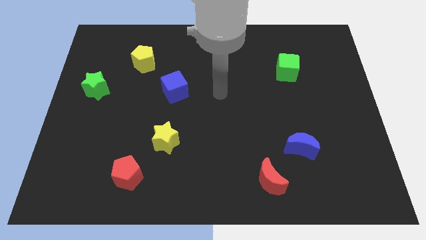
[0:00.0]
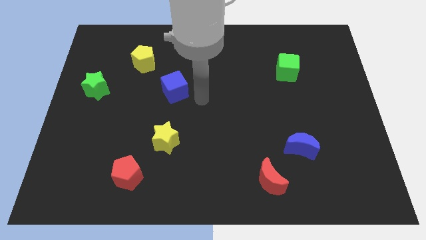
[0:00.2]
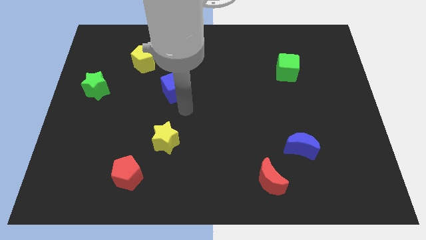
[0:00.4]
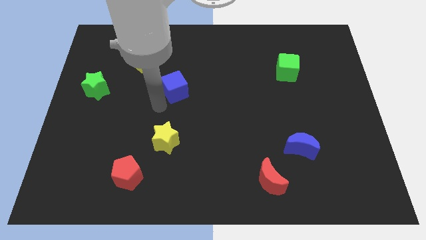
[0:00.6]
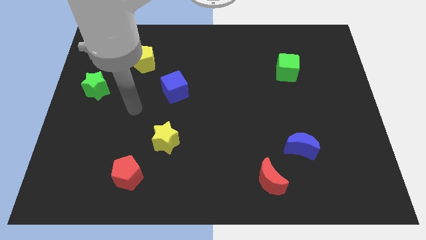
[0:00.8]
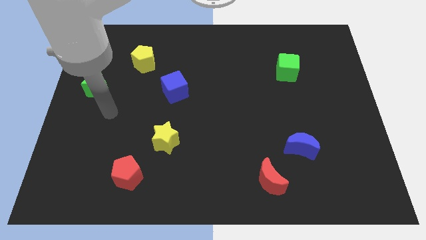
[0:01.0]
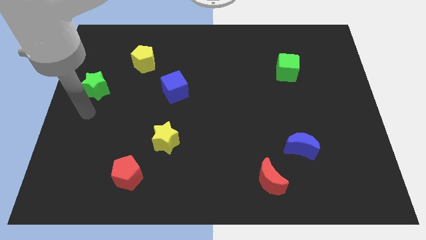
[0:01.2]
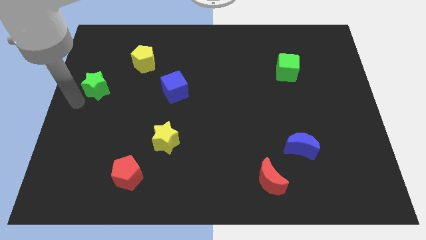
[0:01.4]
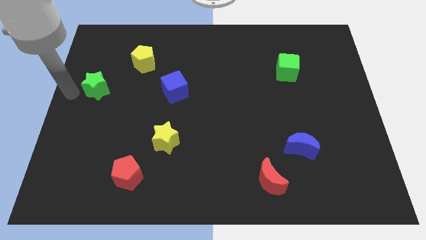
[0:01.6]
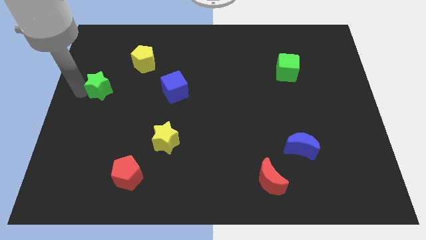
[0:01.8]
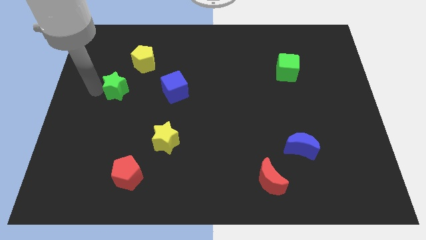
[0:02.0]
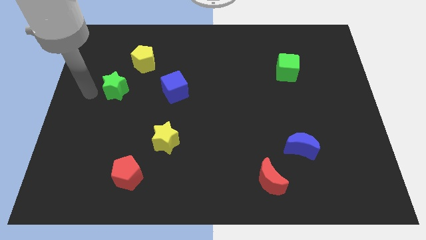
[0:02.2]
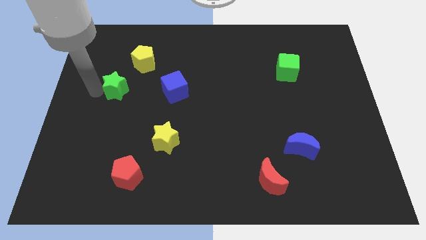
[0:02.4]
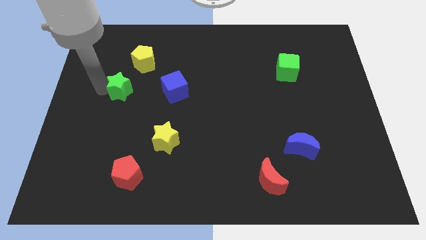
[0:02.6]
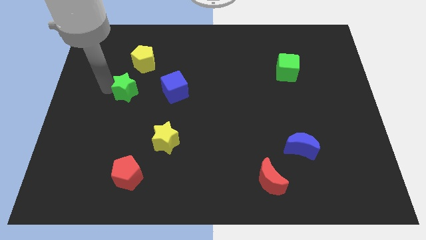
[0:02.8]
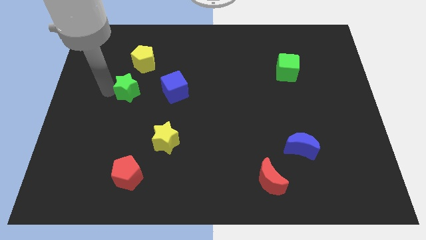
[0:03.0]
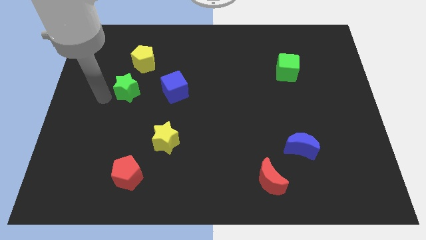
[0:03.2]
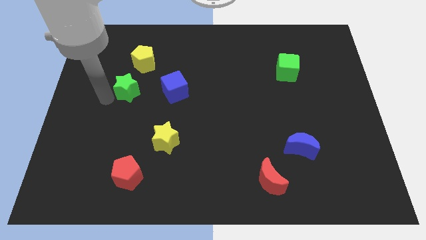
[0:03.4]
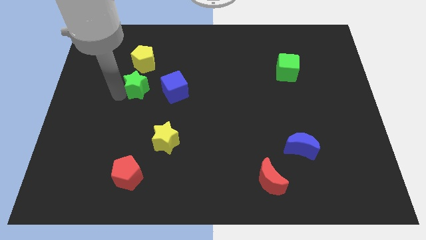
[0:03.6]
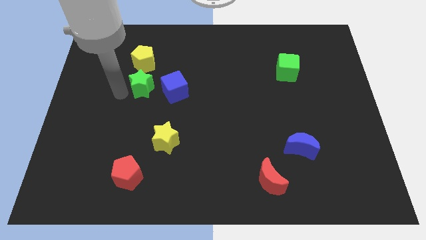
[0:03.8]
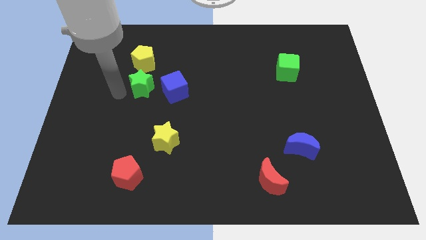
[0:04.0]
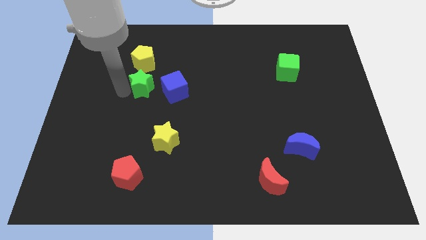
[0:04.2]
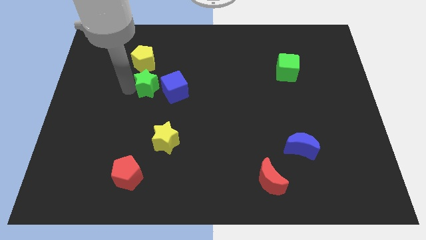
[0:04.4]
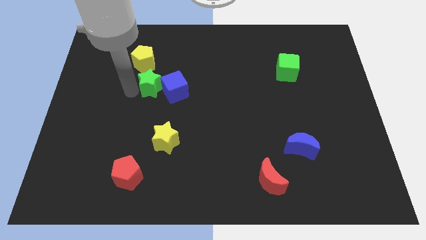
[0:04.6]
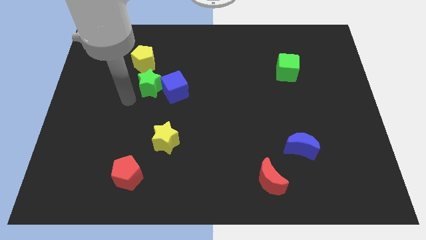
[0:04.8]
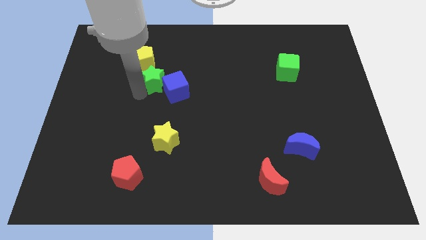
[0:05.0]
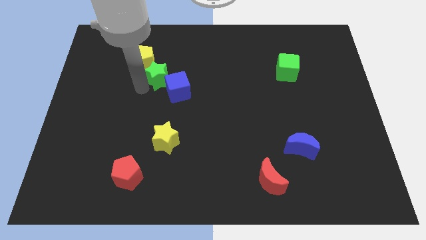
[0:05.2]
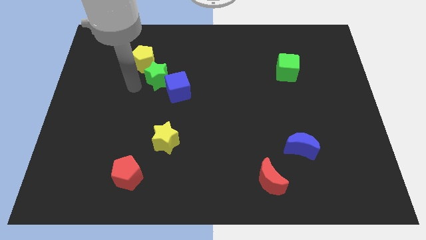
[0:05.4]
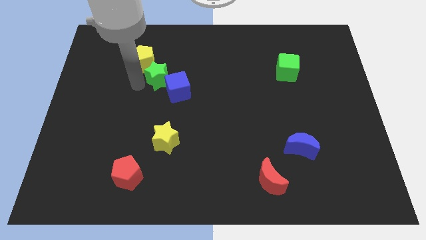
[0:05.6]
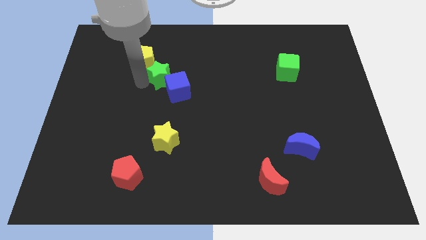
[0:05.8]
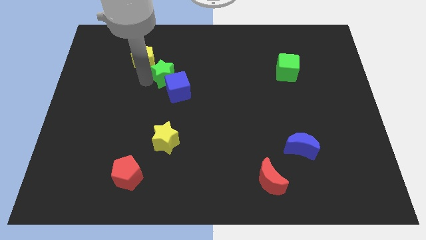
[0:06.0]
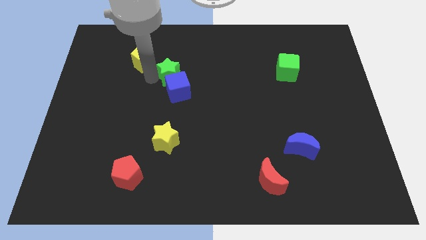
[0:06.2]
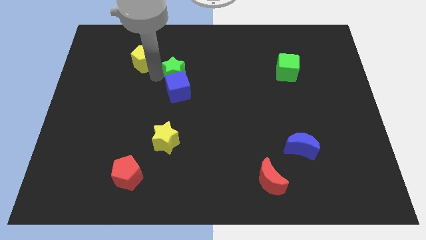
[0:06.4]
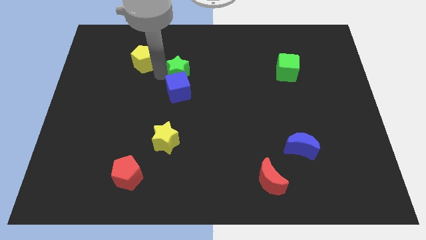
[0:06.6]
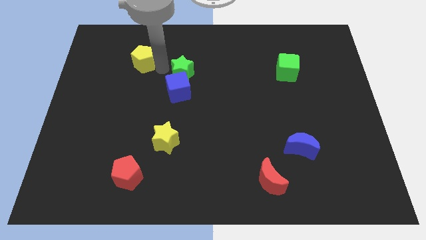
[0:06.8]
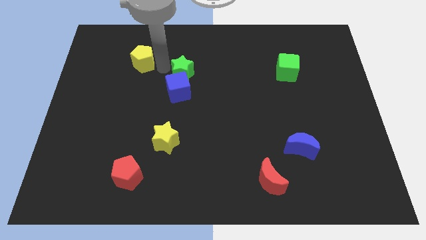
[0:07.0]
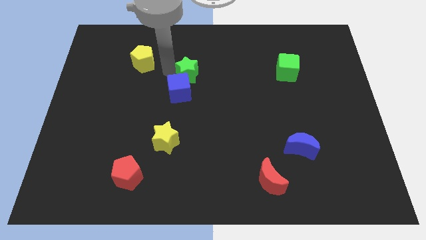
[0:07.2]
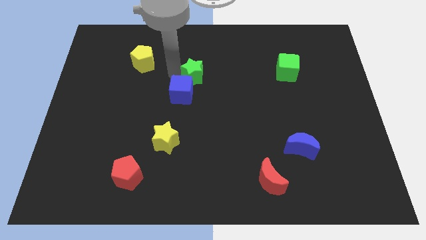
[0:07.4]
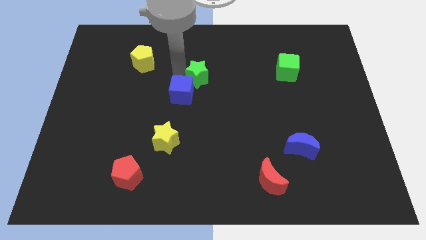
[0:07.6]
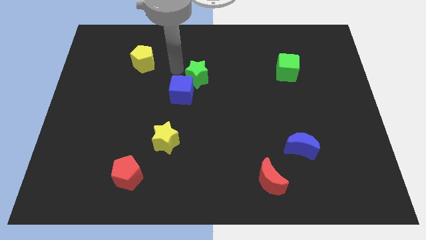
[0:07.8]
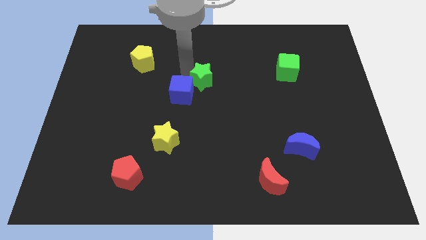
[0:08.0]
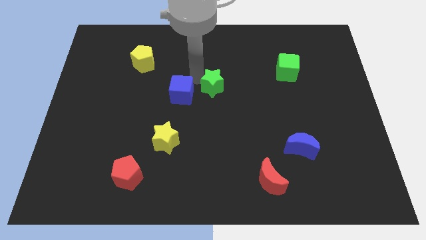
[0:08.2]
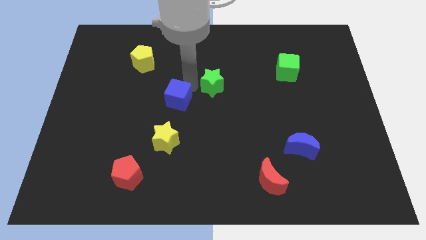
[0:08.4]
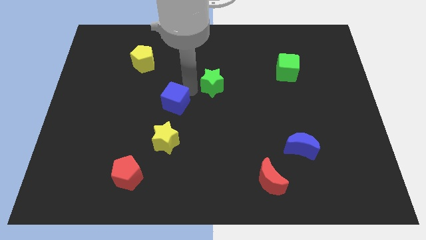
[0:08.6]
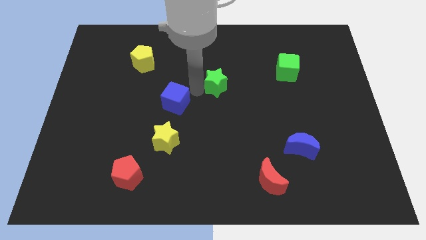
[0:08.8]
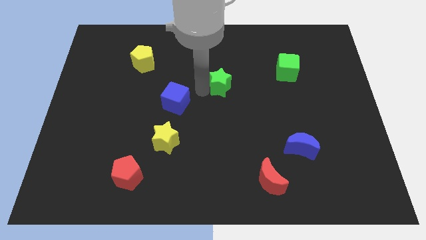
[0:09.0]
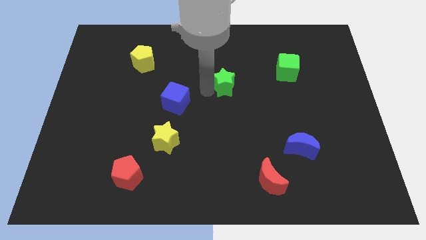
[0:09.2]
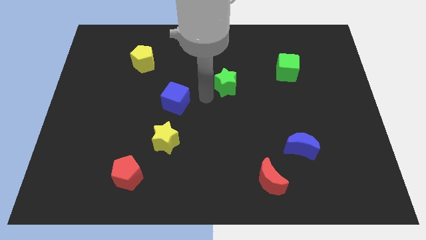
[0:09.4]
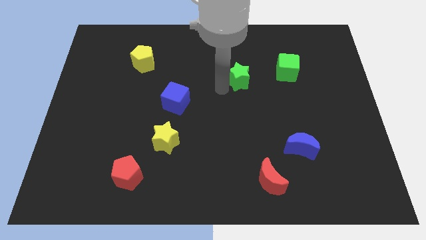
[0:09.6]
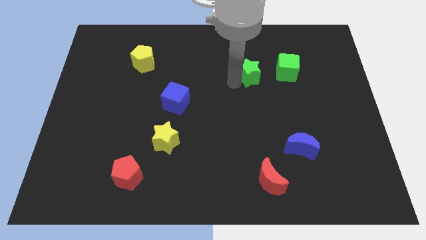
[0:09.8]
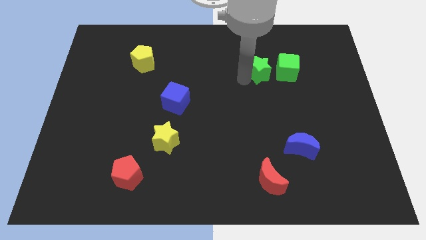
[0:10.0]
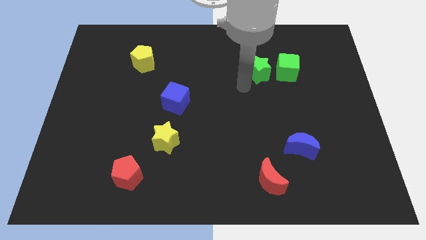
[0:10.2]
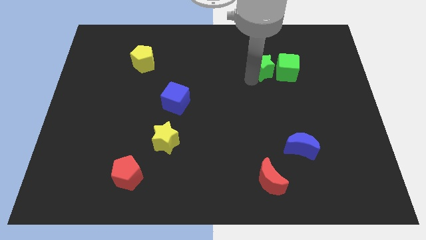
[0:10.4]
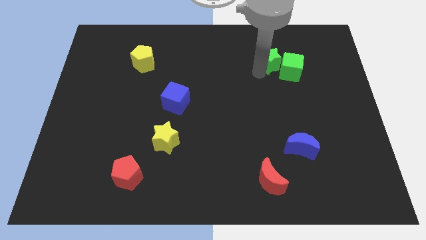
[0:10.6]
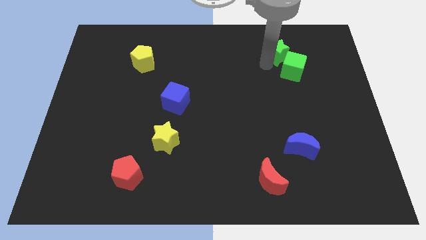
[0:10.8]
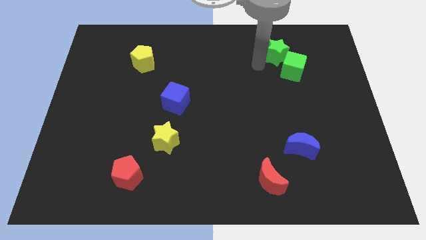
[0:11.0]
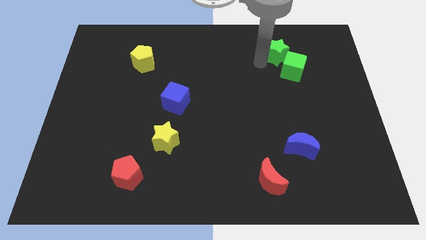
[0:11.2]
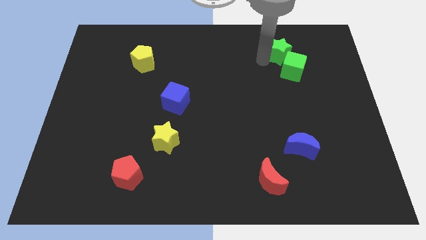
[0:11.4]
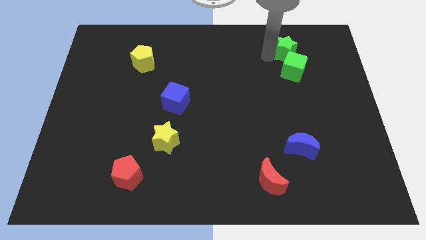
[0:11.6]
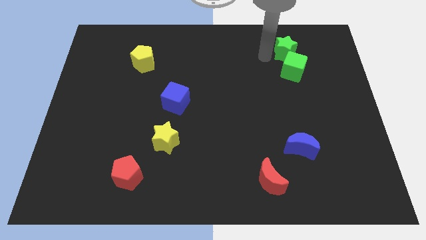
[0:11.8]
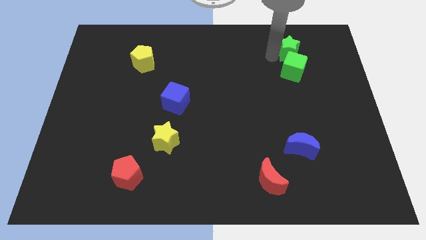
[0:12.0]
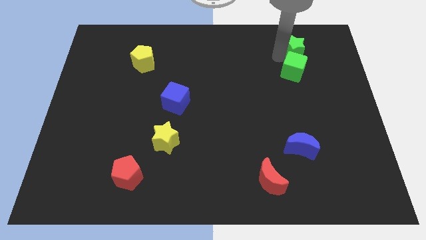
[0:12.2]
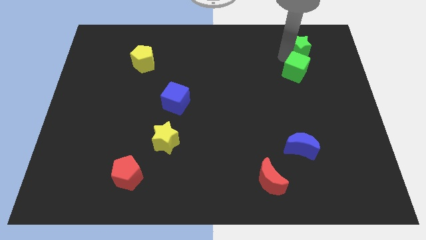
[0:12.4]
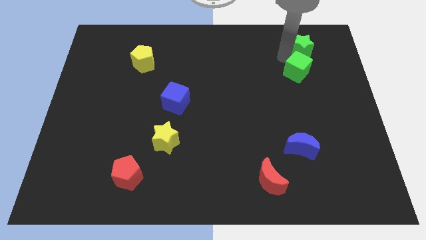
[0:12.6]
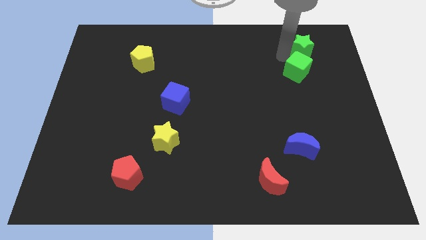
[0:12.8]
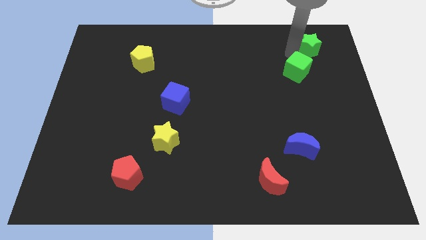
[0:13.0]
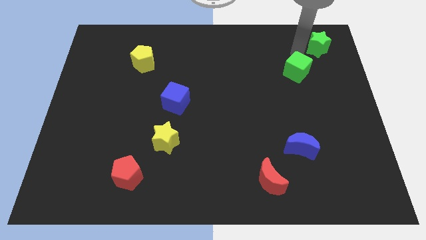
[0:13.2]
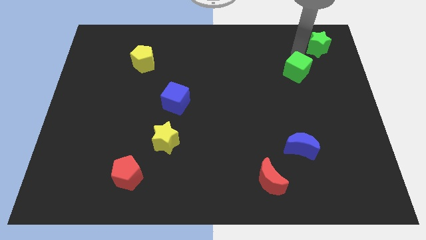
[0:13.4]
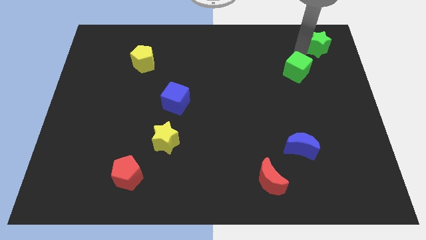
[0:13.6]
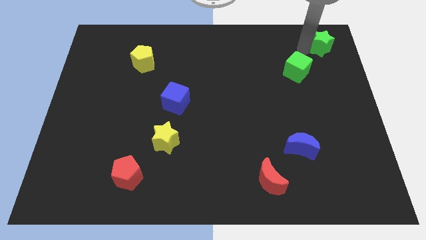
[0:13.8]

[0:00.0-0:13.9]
move the green star to the top right of the board
